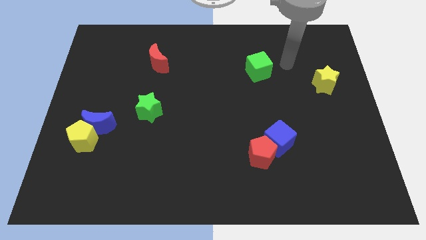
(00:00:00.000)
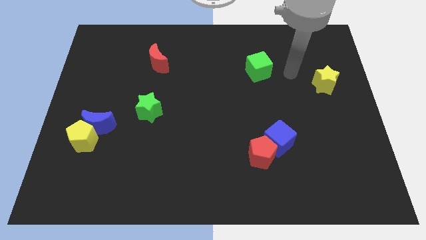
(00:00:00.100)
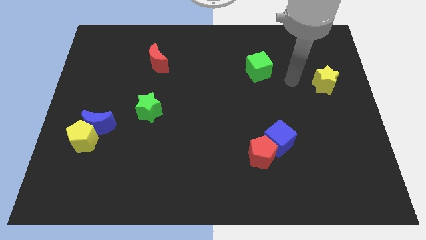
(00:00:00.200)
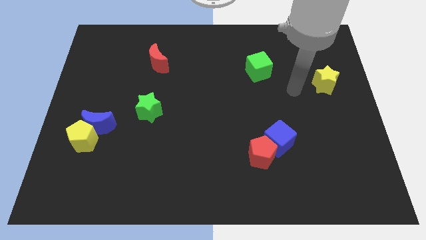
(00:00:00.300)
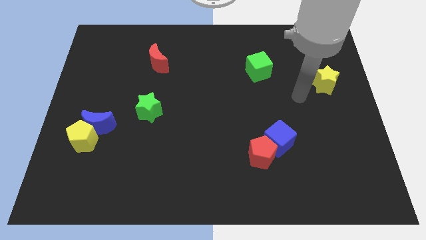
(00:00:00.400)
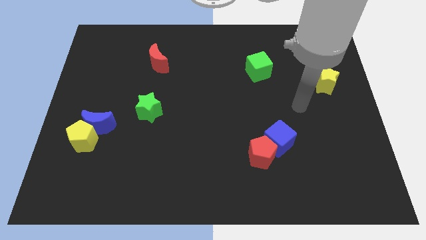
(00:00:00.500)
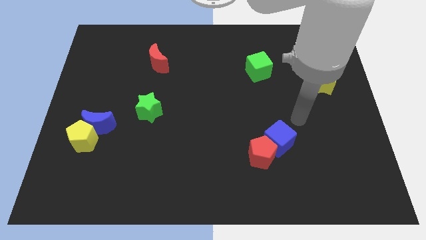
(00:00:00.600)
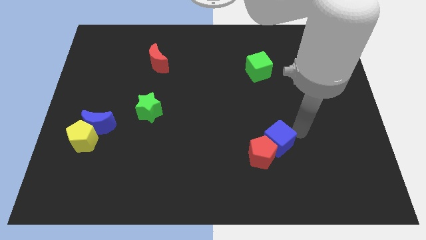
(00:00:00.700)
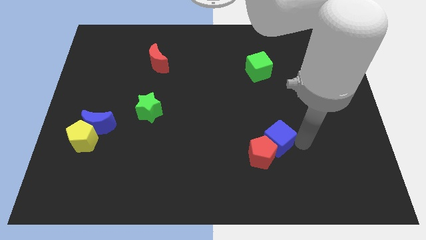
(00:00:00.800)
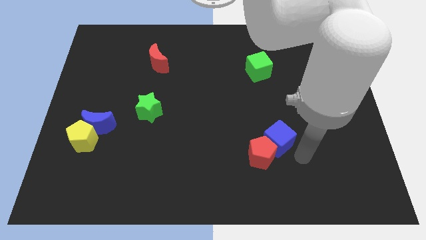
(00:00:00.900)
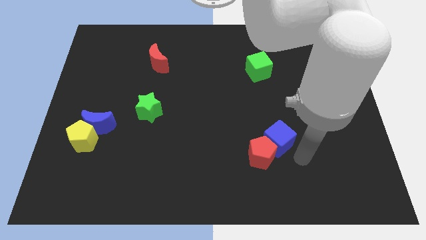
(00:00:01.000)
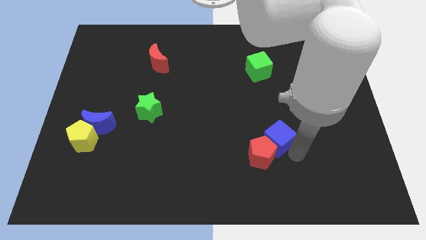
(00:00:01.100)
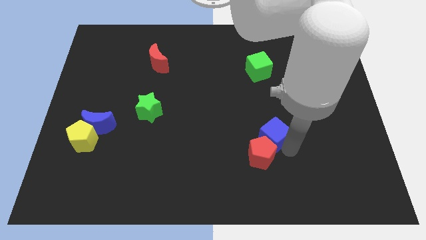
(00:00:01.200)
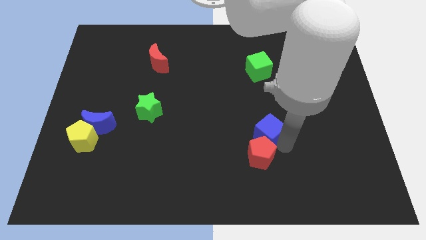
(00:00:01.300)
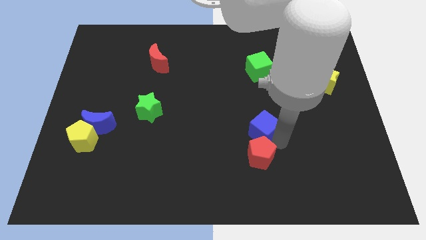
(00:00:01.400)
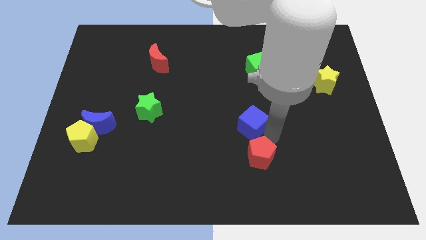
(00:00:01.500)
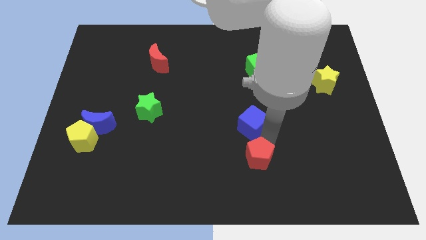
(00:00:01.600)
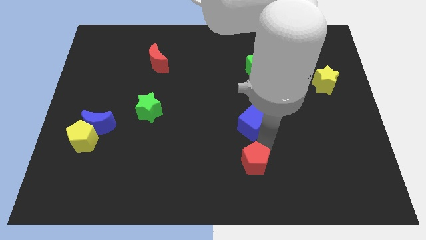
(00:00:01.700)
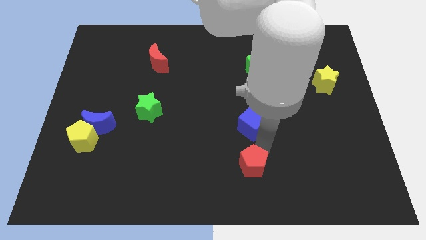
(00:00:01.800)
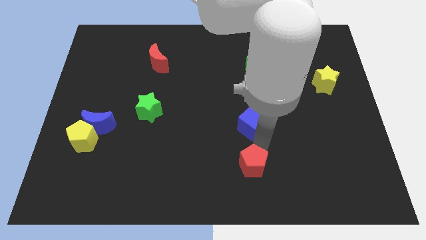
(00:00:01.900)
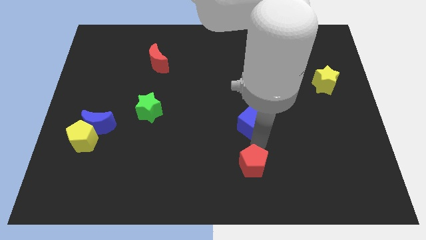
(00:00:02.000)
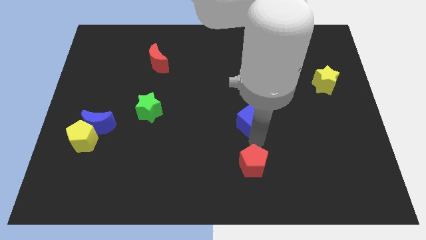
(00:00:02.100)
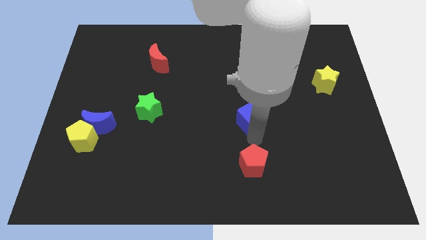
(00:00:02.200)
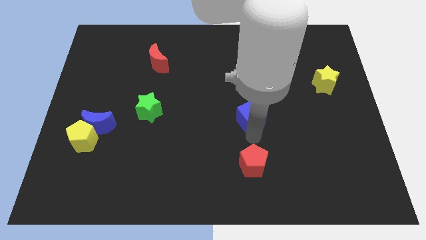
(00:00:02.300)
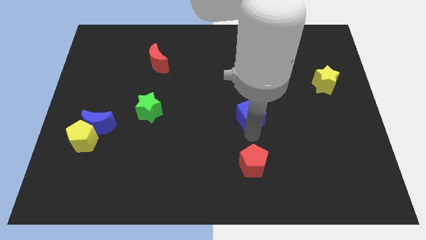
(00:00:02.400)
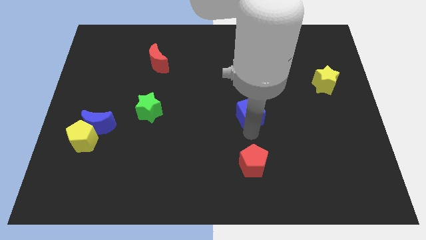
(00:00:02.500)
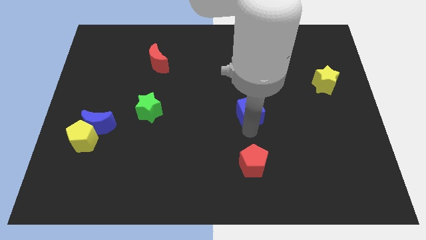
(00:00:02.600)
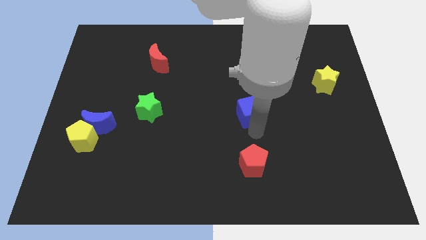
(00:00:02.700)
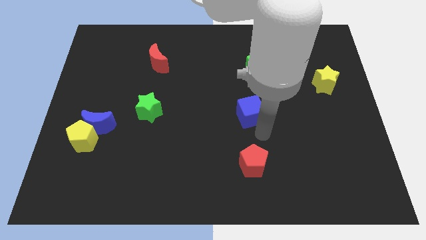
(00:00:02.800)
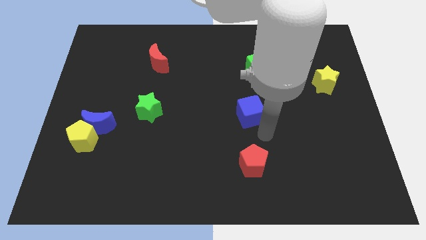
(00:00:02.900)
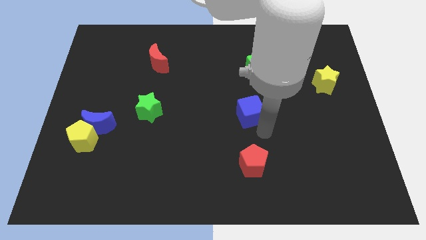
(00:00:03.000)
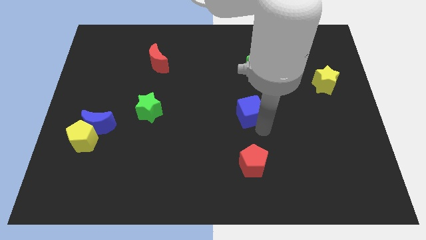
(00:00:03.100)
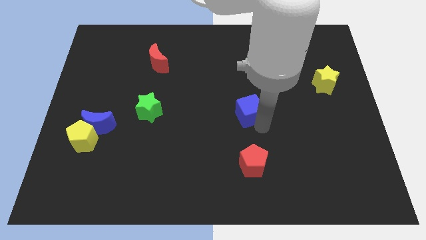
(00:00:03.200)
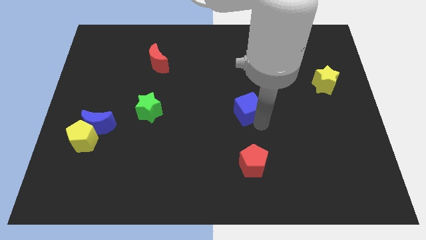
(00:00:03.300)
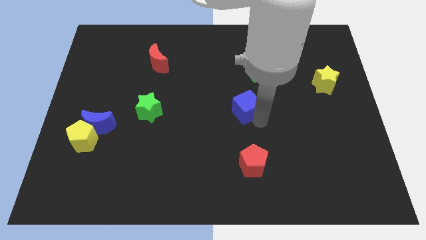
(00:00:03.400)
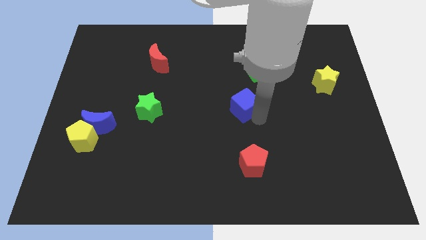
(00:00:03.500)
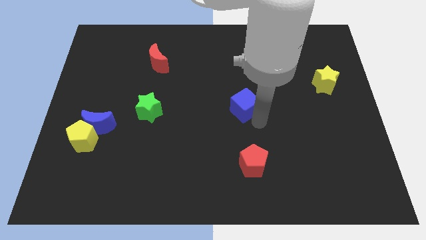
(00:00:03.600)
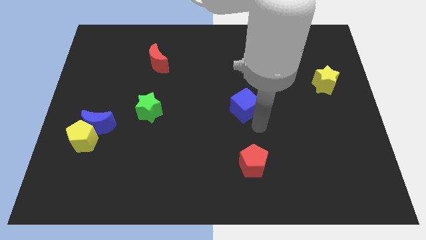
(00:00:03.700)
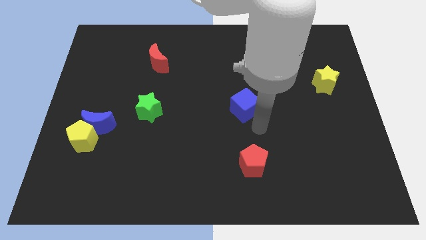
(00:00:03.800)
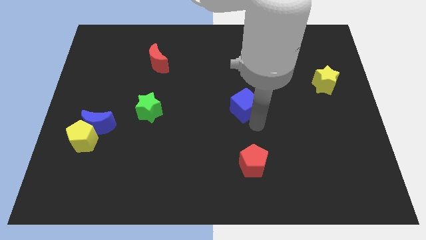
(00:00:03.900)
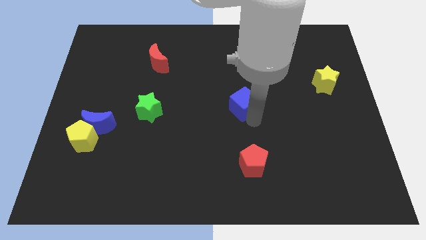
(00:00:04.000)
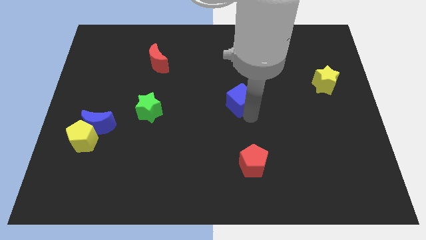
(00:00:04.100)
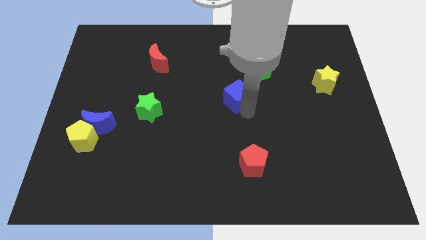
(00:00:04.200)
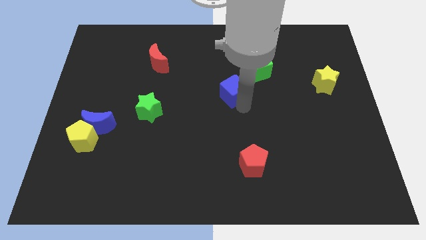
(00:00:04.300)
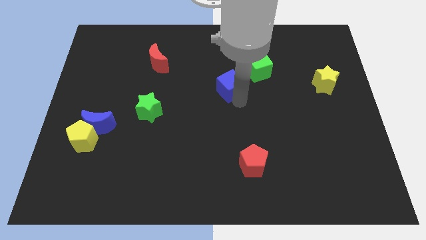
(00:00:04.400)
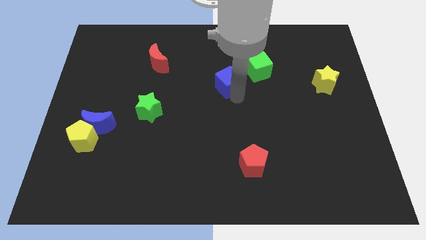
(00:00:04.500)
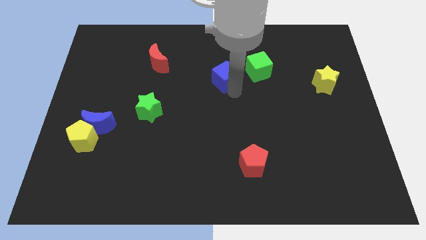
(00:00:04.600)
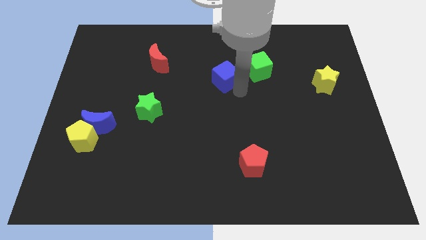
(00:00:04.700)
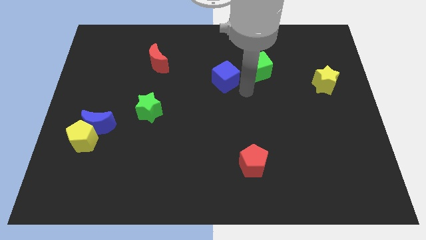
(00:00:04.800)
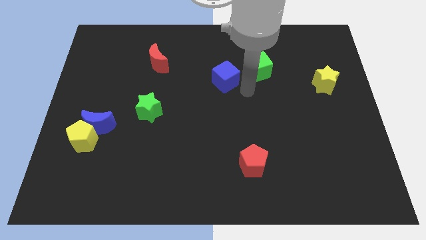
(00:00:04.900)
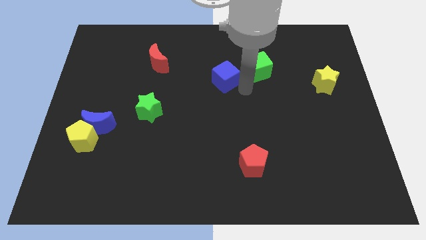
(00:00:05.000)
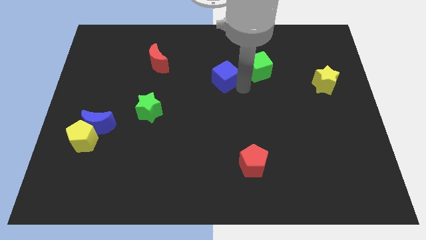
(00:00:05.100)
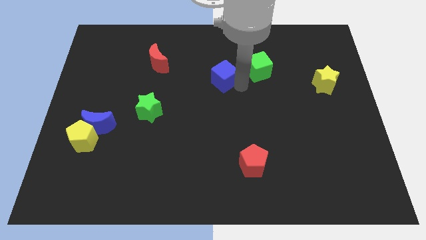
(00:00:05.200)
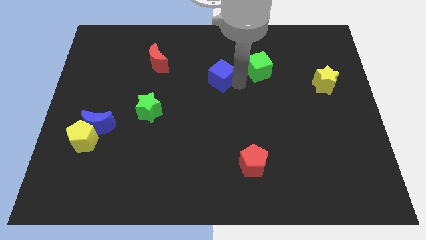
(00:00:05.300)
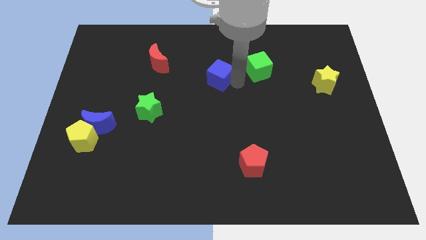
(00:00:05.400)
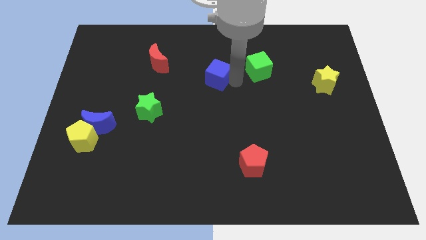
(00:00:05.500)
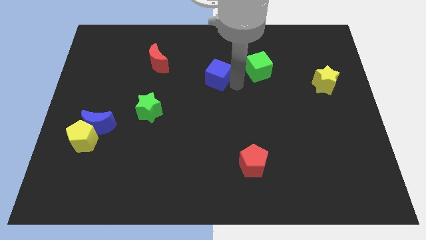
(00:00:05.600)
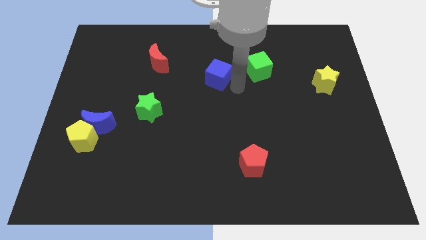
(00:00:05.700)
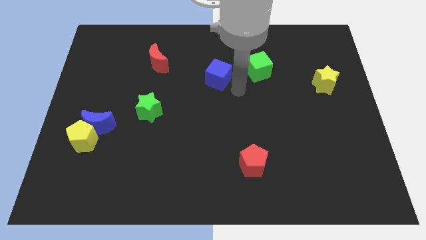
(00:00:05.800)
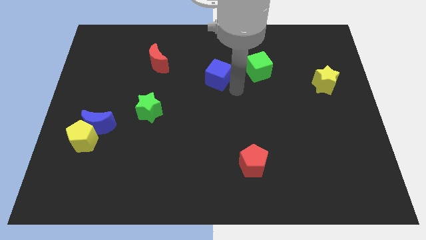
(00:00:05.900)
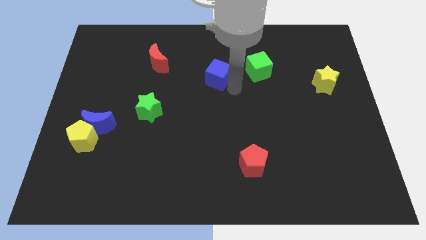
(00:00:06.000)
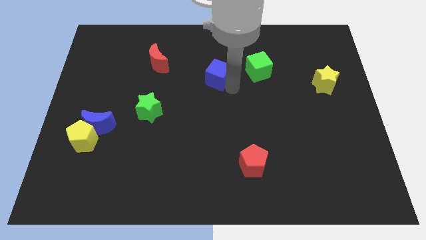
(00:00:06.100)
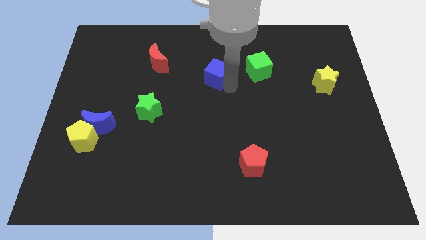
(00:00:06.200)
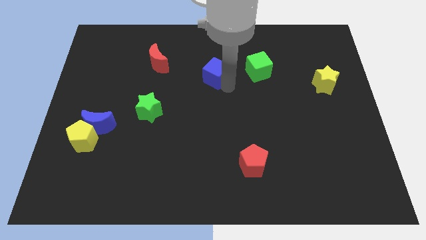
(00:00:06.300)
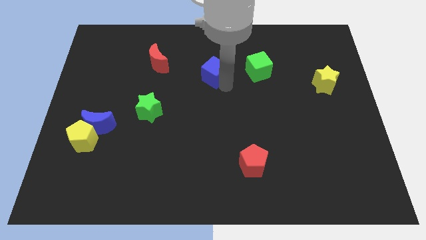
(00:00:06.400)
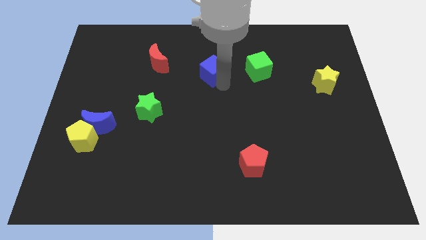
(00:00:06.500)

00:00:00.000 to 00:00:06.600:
put the blue cube to the right side of the red moon
